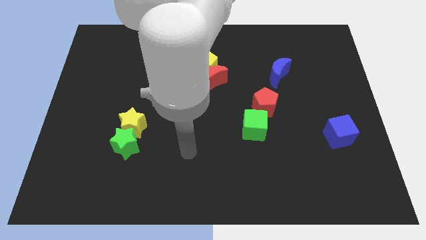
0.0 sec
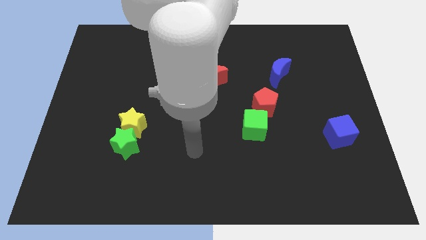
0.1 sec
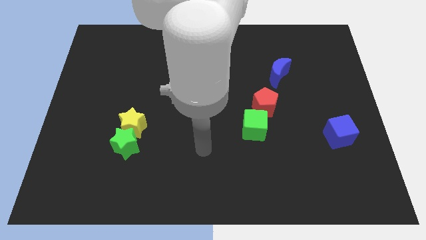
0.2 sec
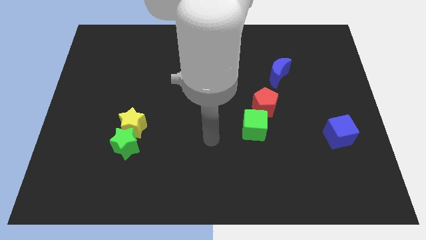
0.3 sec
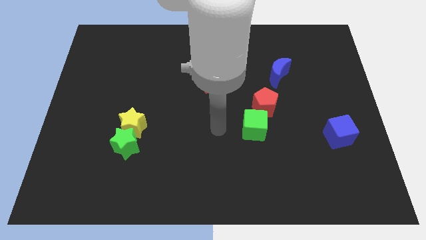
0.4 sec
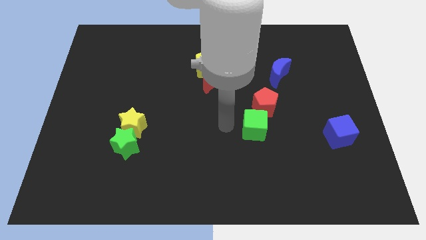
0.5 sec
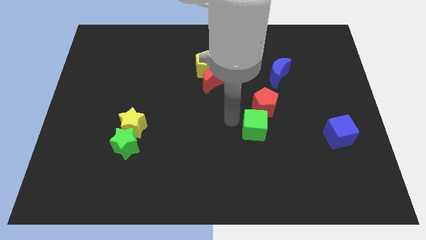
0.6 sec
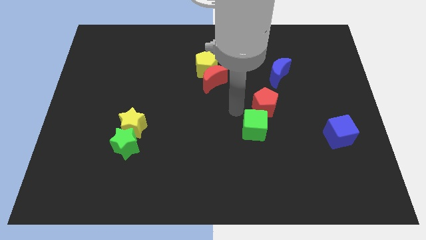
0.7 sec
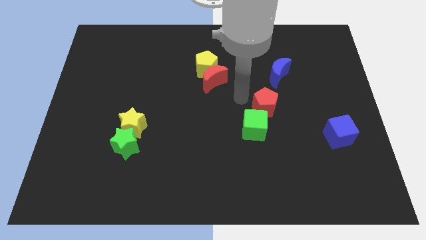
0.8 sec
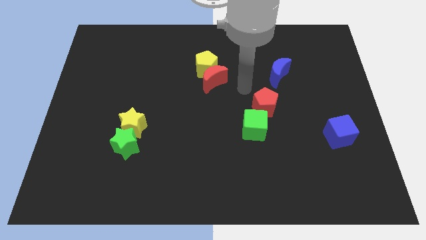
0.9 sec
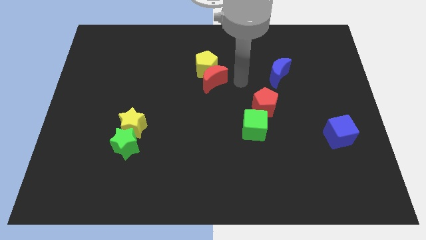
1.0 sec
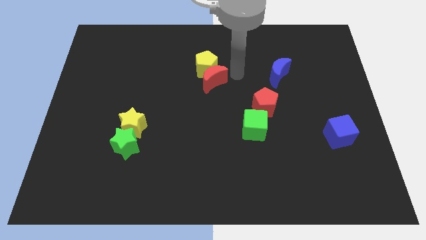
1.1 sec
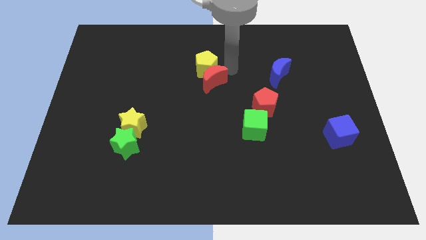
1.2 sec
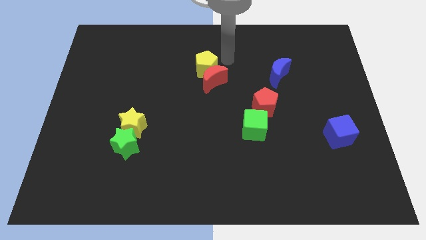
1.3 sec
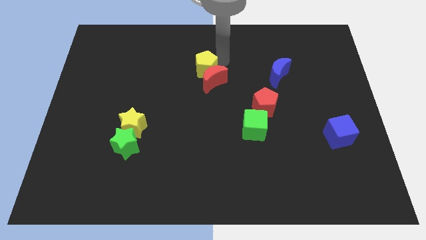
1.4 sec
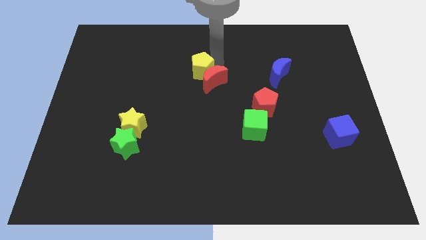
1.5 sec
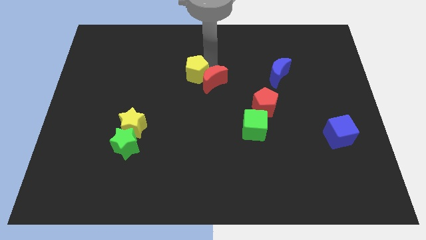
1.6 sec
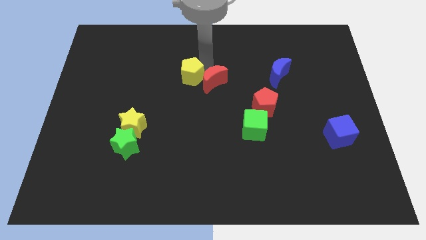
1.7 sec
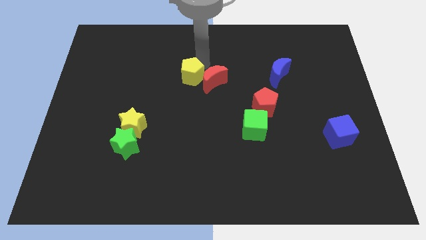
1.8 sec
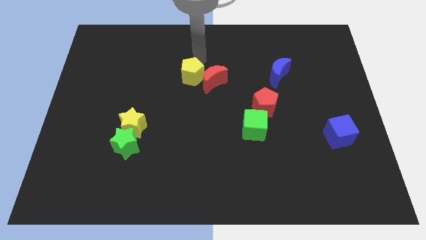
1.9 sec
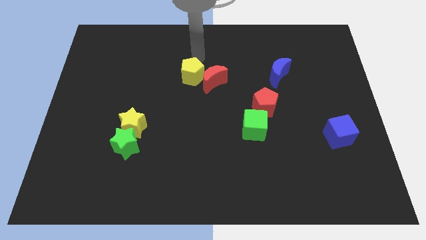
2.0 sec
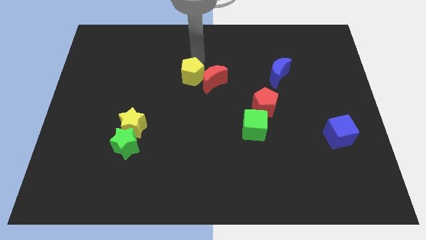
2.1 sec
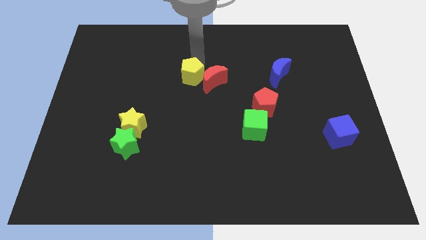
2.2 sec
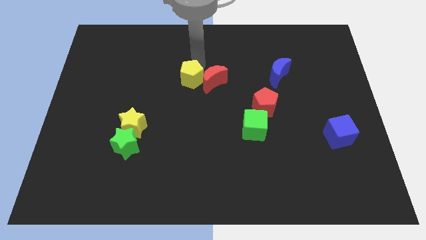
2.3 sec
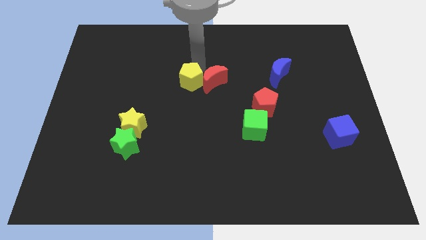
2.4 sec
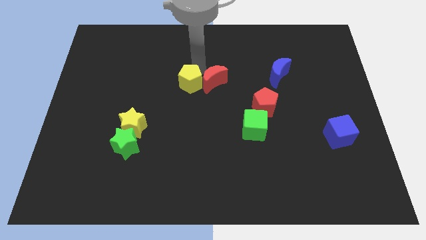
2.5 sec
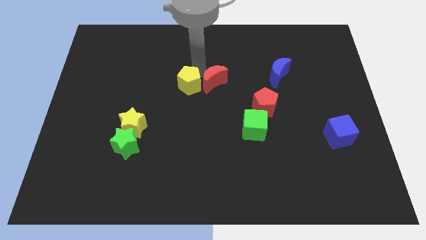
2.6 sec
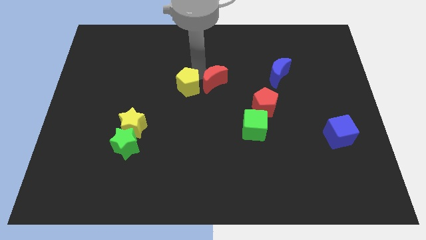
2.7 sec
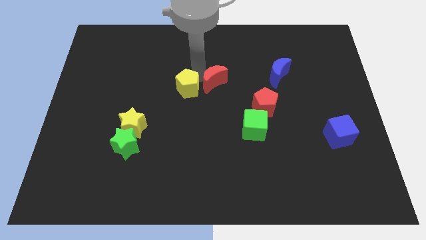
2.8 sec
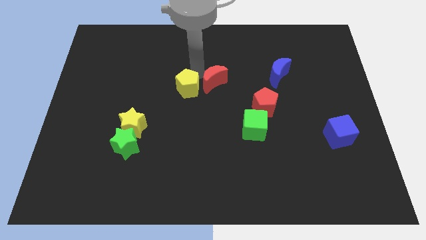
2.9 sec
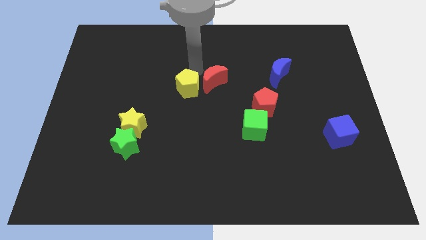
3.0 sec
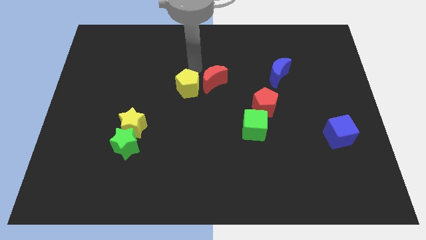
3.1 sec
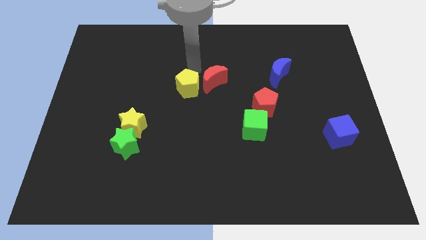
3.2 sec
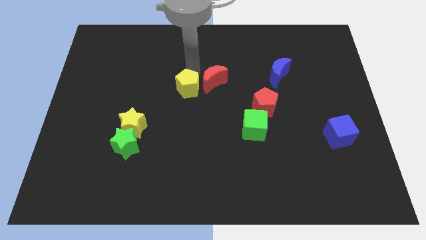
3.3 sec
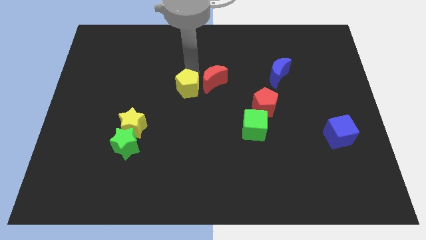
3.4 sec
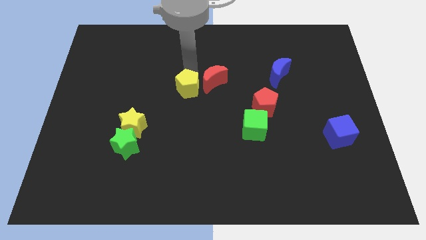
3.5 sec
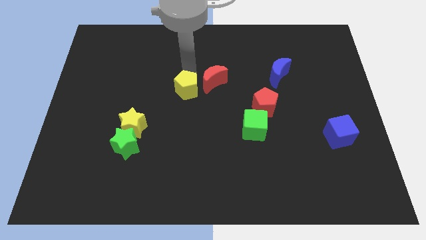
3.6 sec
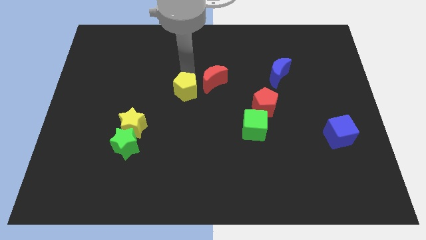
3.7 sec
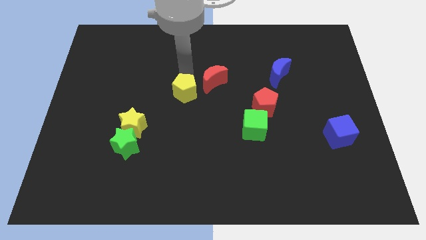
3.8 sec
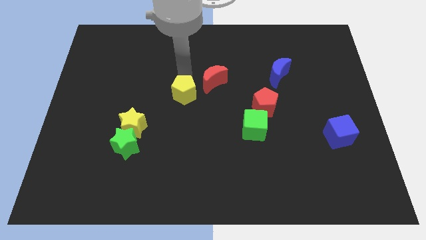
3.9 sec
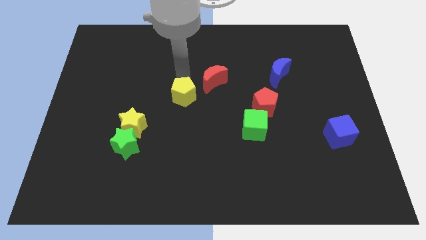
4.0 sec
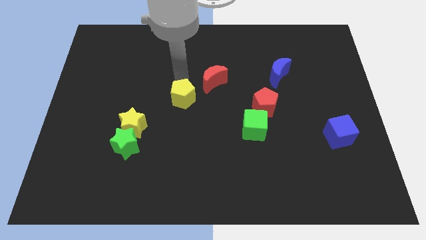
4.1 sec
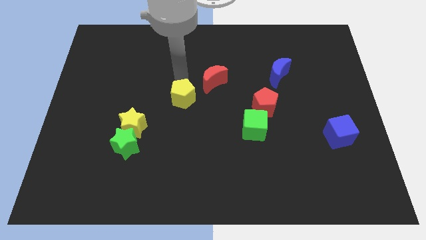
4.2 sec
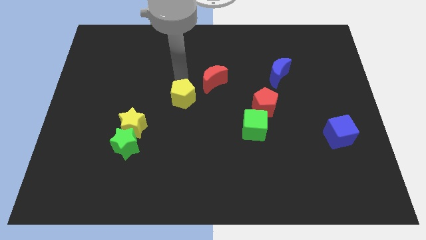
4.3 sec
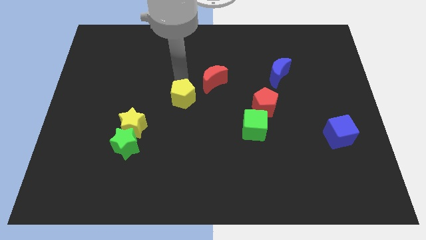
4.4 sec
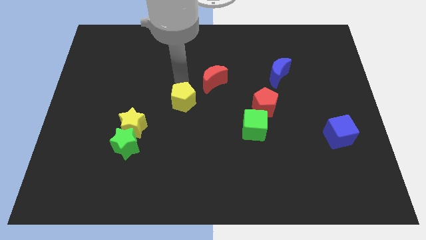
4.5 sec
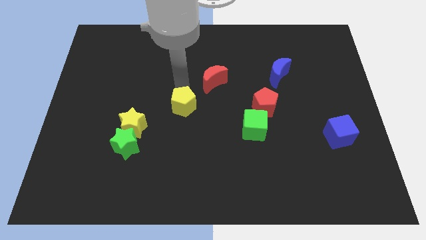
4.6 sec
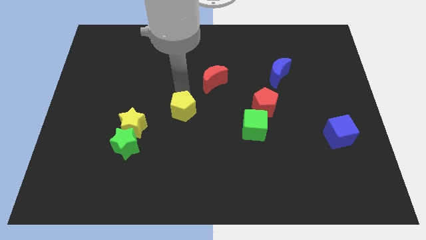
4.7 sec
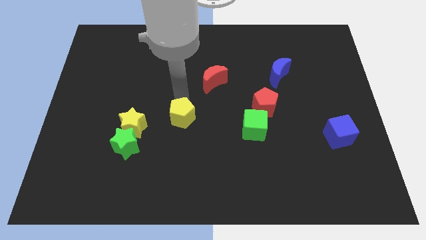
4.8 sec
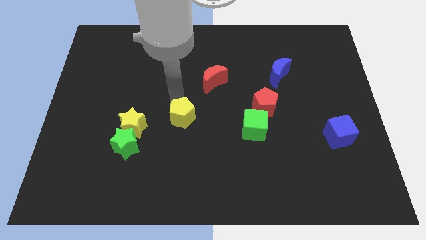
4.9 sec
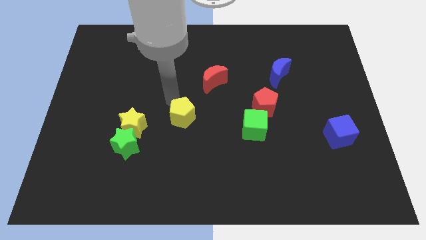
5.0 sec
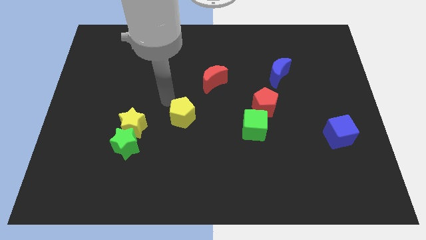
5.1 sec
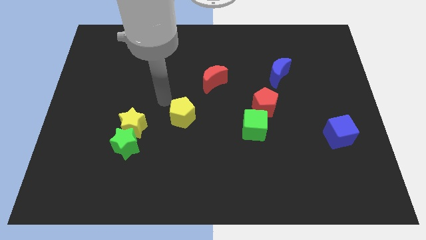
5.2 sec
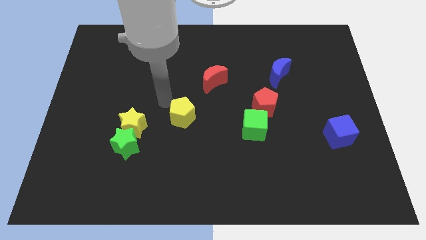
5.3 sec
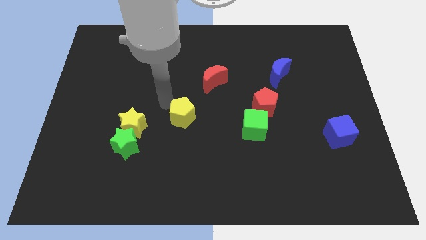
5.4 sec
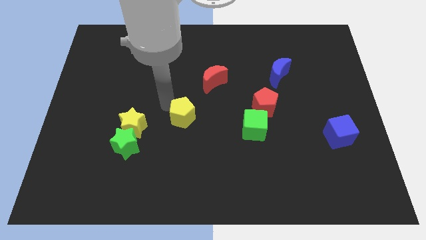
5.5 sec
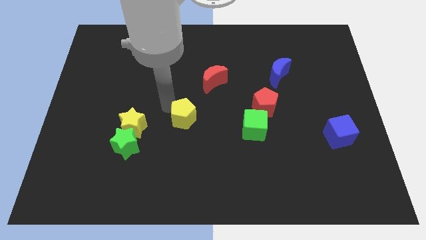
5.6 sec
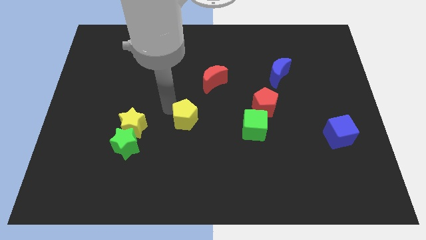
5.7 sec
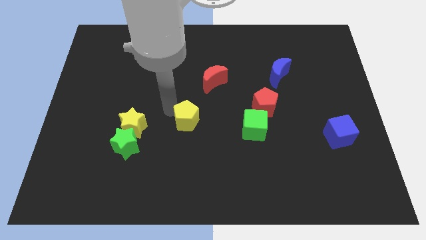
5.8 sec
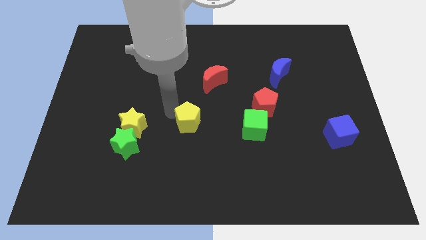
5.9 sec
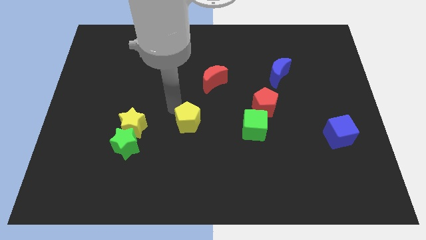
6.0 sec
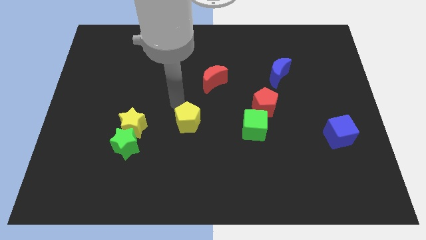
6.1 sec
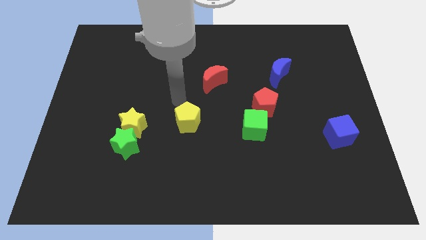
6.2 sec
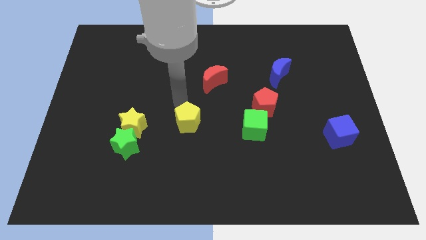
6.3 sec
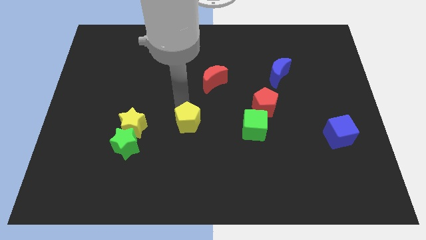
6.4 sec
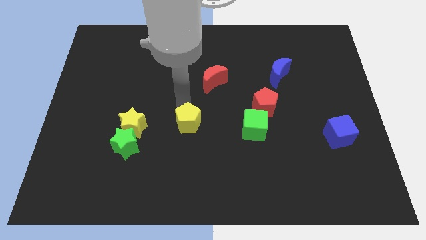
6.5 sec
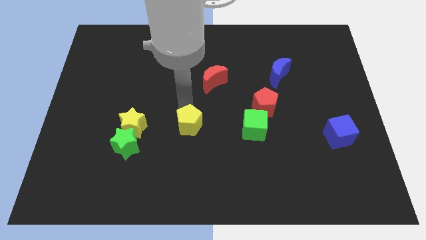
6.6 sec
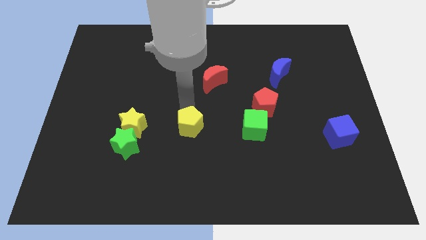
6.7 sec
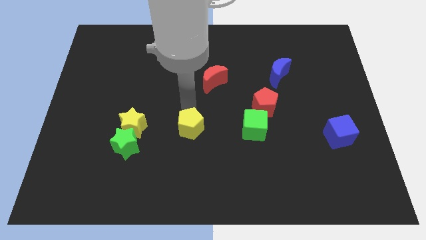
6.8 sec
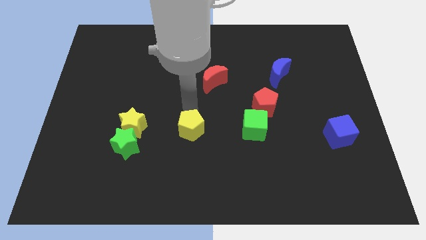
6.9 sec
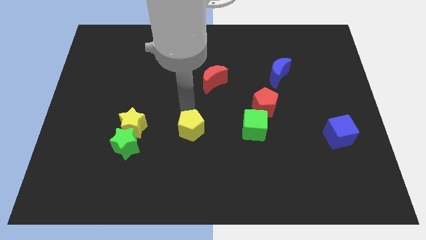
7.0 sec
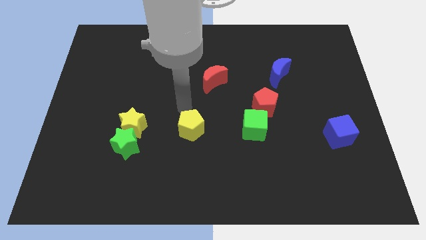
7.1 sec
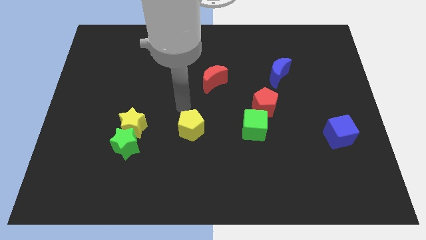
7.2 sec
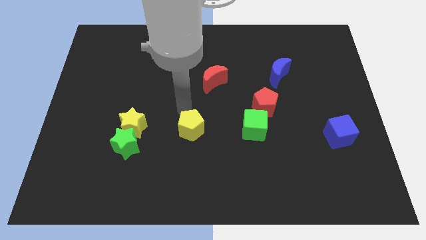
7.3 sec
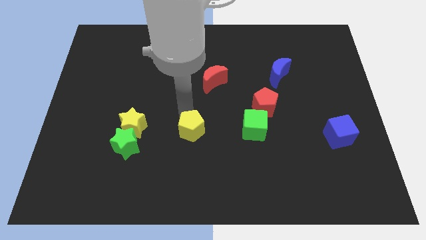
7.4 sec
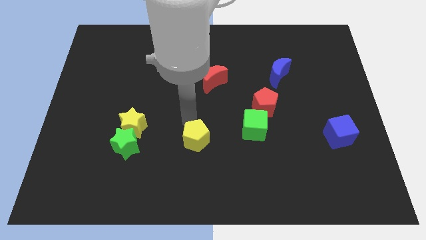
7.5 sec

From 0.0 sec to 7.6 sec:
slide the yellow pentagon down

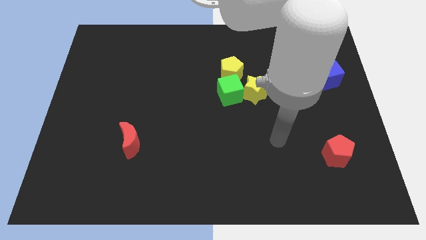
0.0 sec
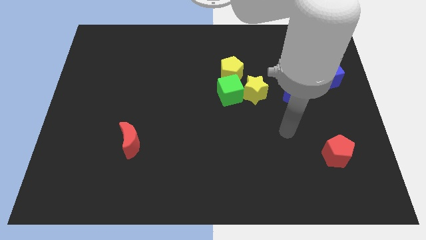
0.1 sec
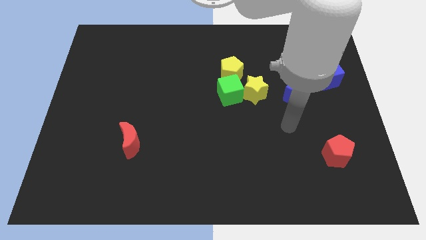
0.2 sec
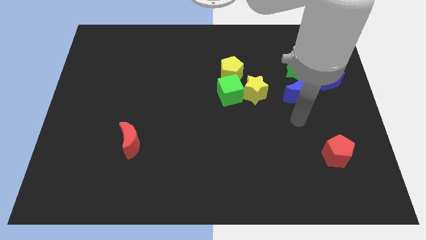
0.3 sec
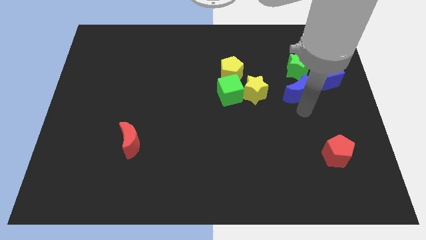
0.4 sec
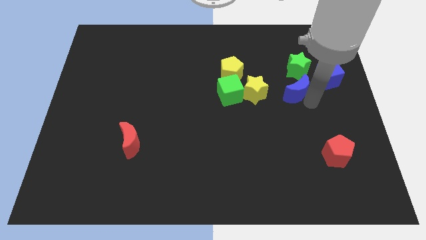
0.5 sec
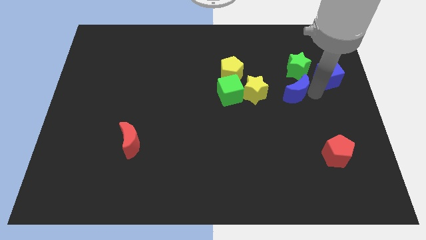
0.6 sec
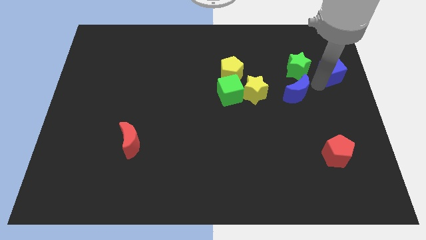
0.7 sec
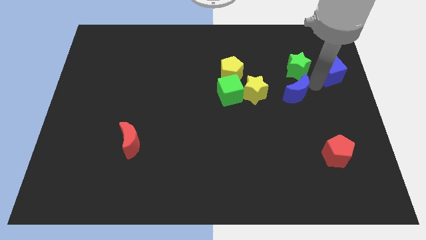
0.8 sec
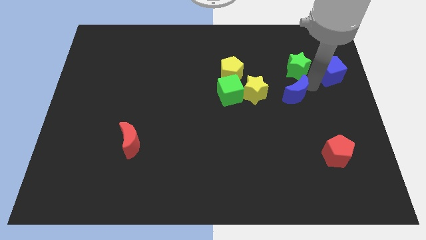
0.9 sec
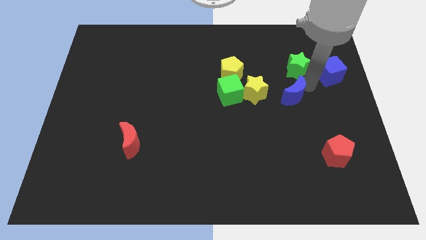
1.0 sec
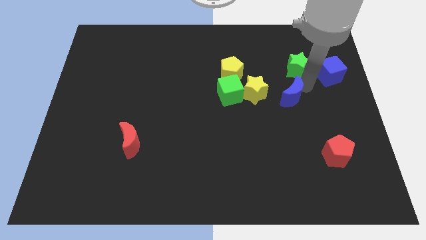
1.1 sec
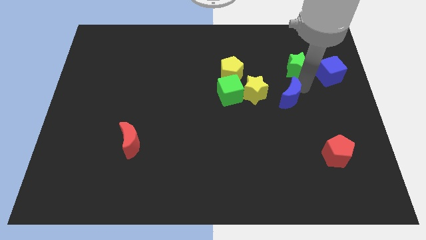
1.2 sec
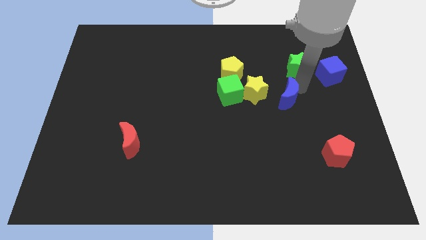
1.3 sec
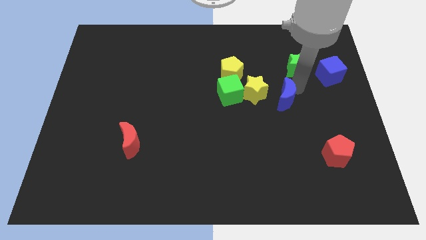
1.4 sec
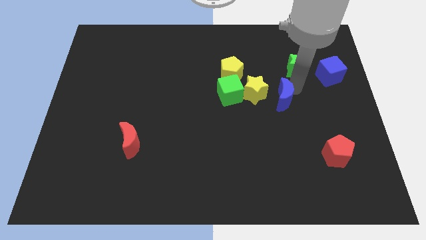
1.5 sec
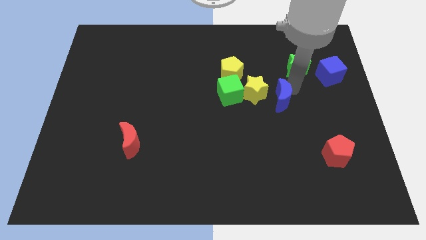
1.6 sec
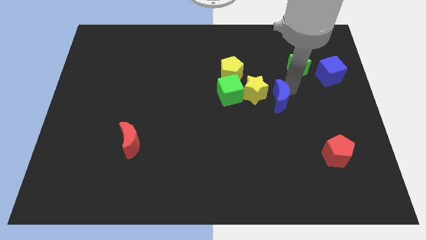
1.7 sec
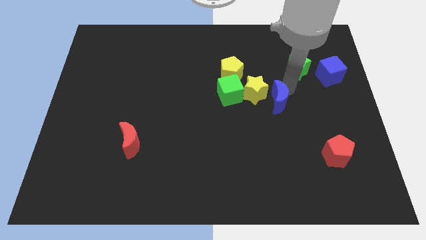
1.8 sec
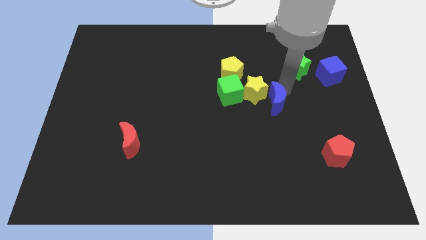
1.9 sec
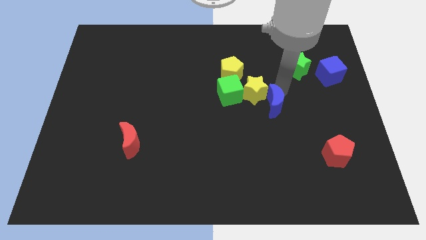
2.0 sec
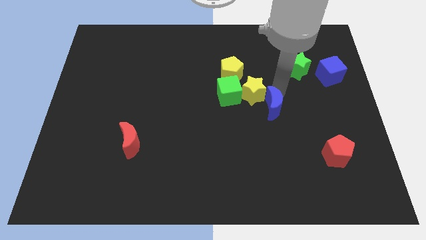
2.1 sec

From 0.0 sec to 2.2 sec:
slightly move the blue moon diagonally downwards and left
